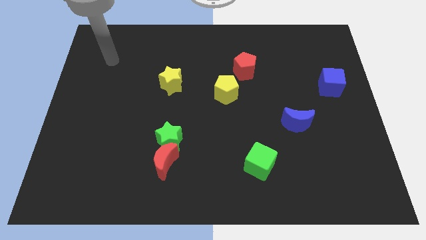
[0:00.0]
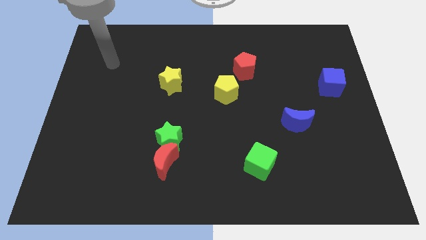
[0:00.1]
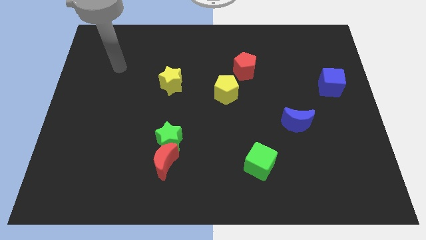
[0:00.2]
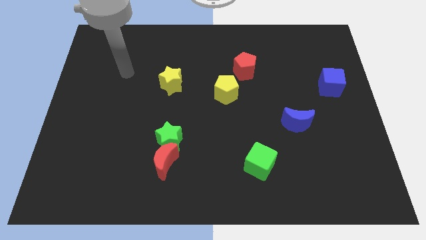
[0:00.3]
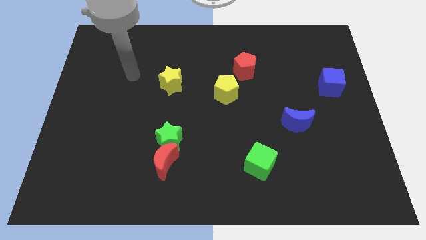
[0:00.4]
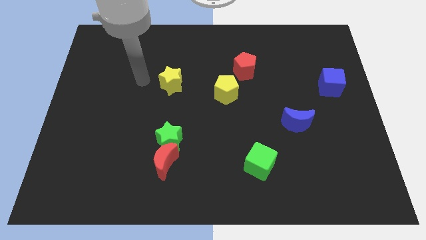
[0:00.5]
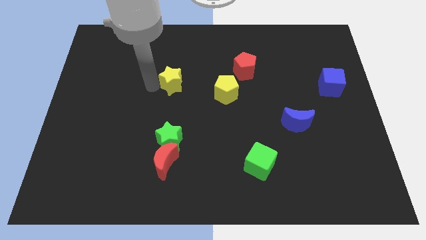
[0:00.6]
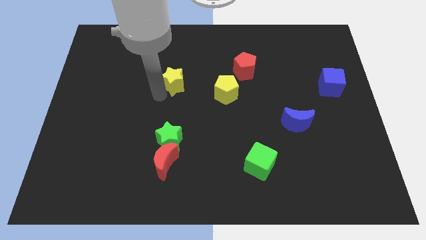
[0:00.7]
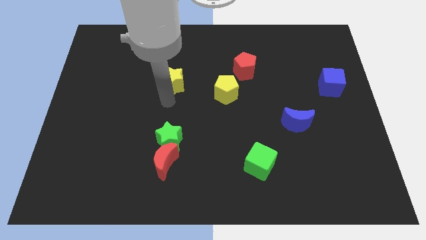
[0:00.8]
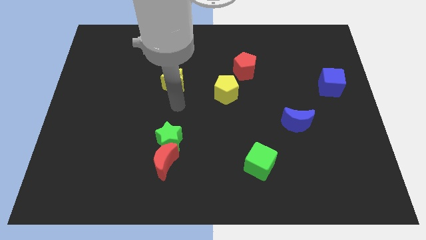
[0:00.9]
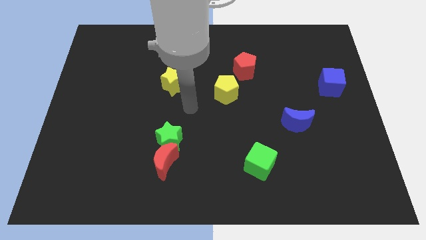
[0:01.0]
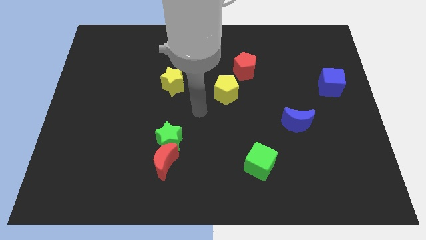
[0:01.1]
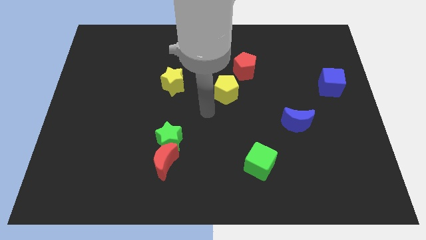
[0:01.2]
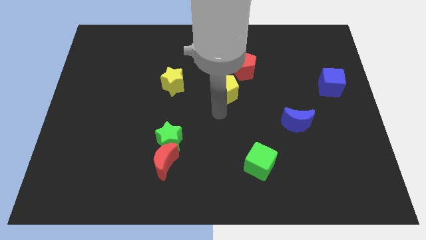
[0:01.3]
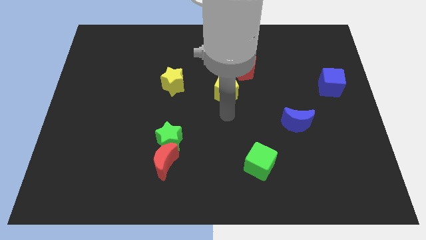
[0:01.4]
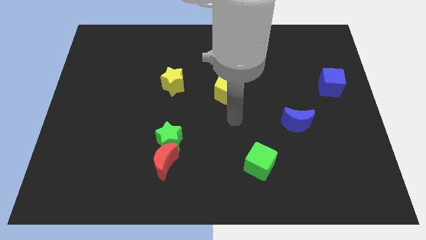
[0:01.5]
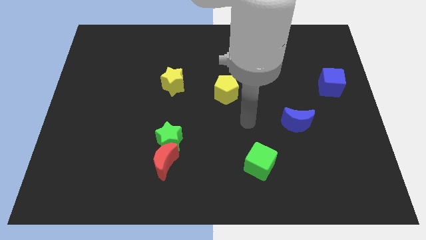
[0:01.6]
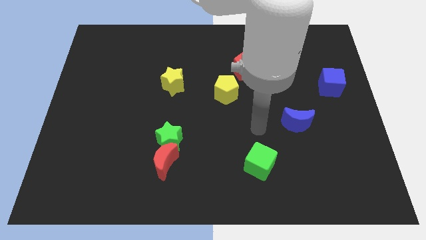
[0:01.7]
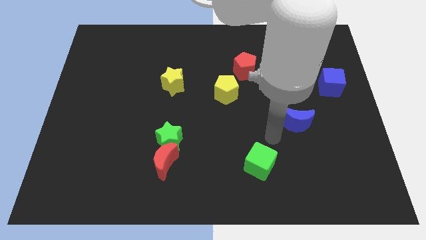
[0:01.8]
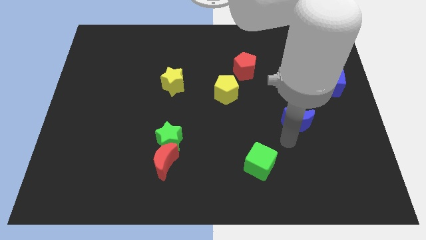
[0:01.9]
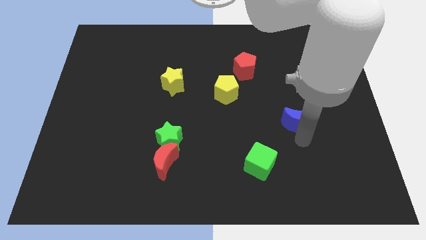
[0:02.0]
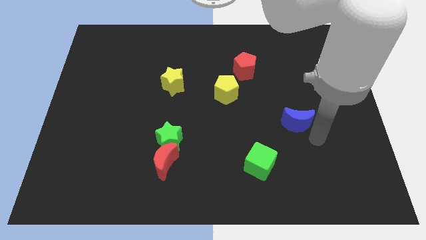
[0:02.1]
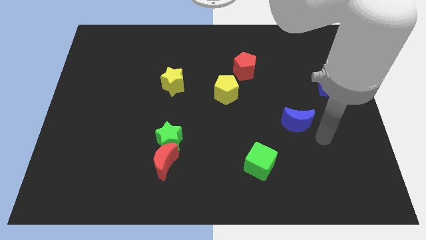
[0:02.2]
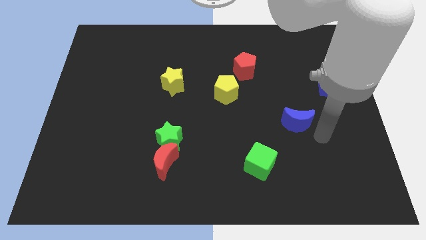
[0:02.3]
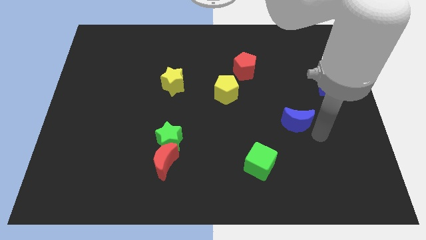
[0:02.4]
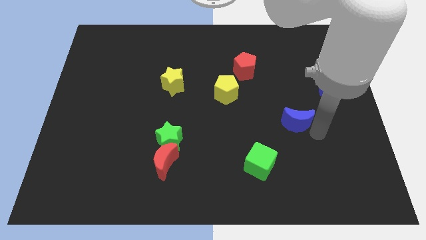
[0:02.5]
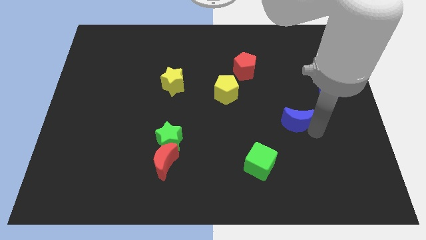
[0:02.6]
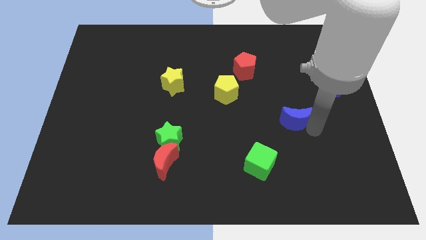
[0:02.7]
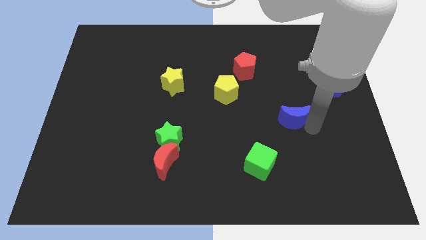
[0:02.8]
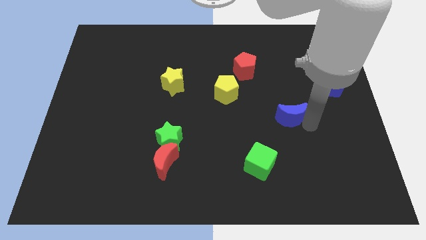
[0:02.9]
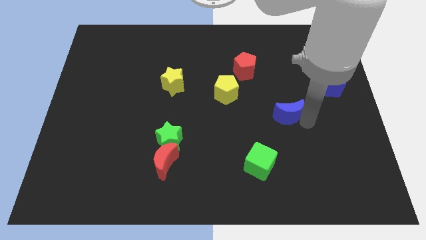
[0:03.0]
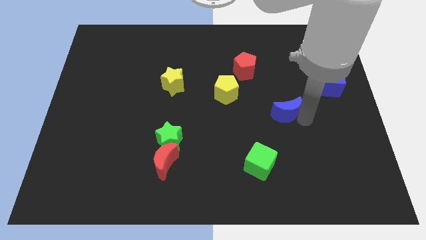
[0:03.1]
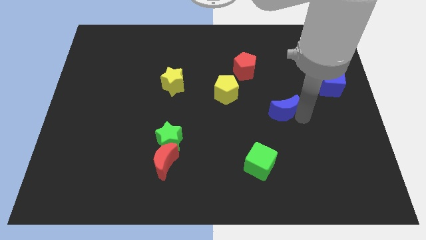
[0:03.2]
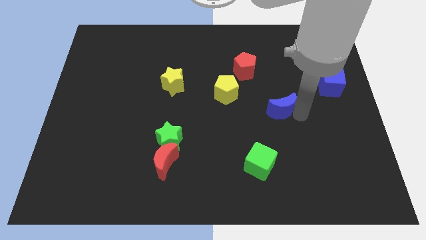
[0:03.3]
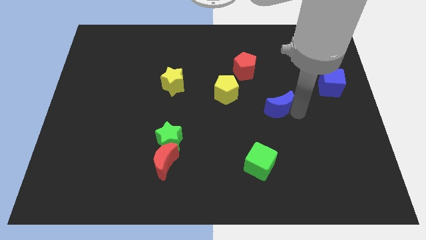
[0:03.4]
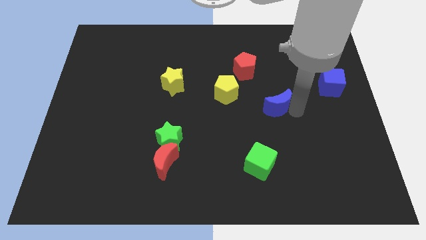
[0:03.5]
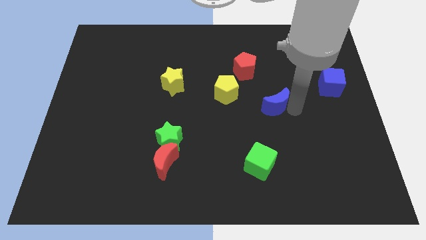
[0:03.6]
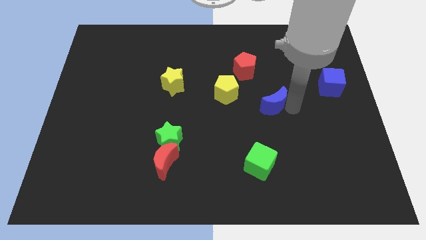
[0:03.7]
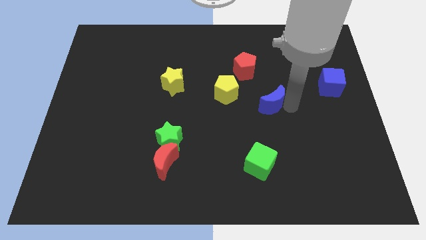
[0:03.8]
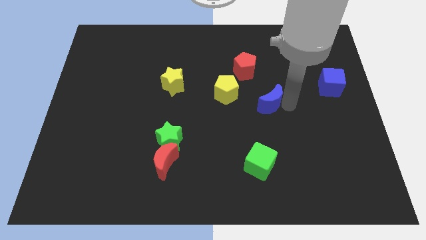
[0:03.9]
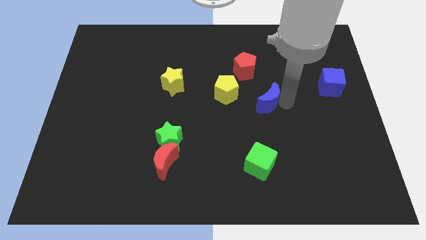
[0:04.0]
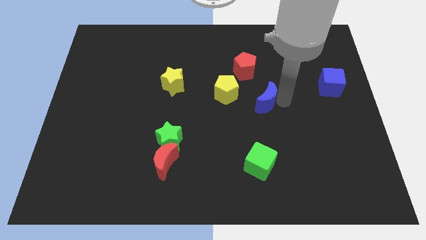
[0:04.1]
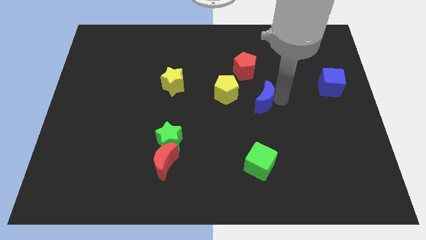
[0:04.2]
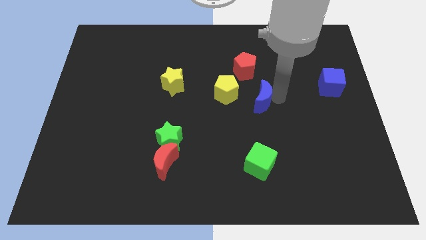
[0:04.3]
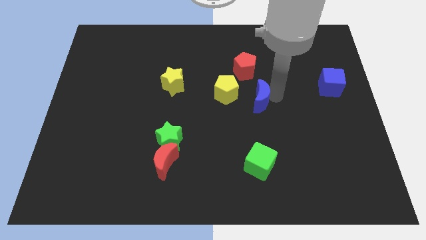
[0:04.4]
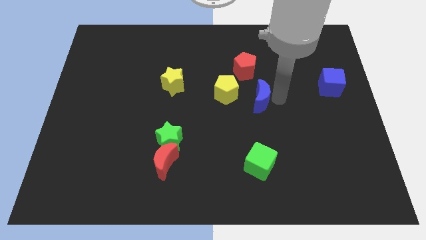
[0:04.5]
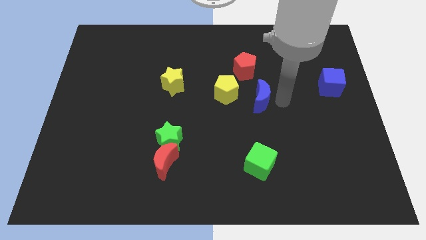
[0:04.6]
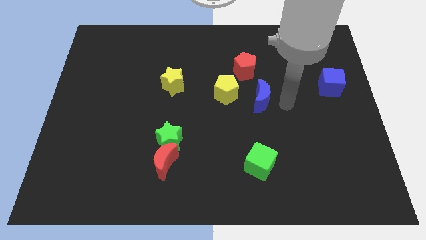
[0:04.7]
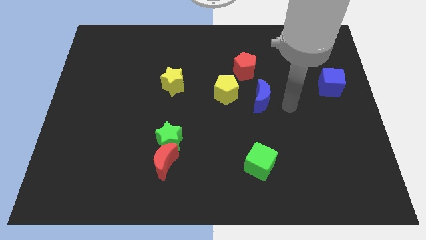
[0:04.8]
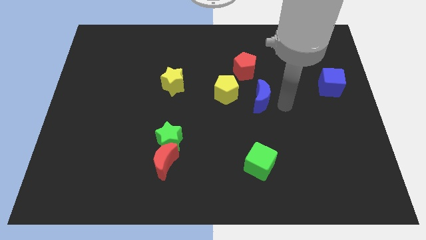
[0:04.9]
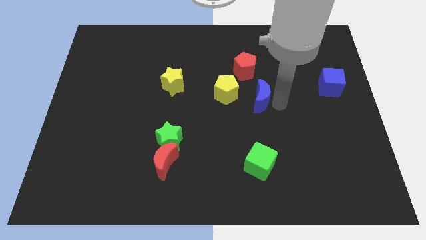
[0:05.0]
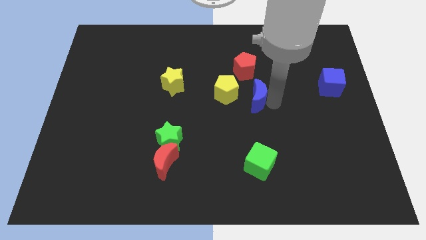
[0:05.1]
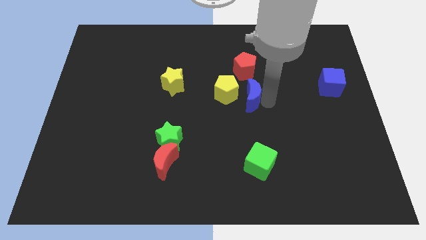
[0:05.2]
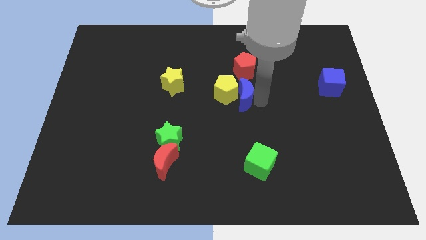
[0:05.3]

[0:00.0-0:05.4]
put the blue moon to the yellow pentagon

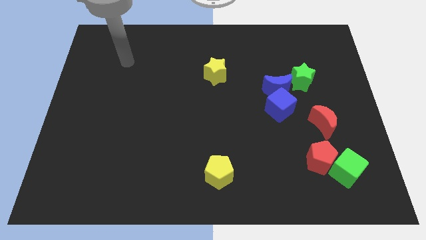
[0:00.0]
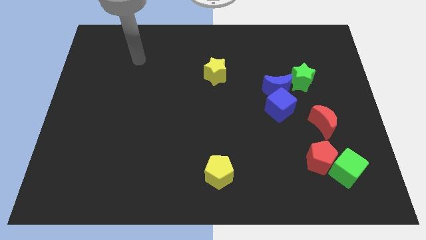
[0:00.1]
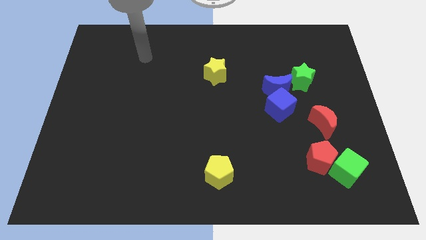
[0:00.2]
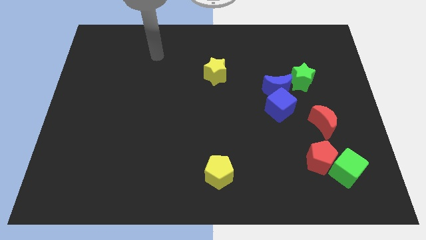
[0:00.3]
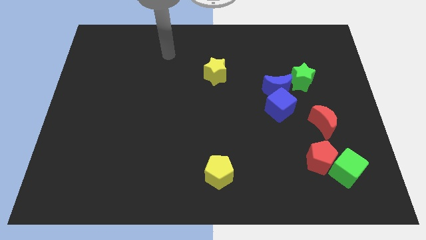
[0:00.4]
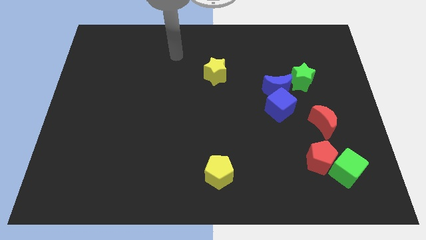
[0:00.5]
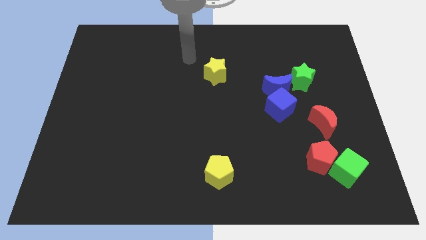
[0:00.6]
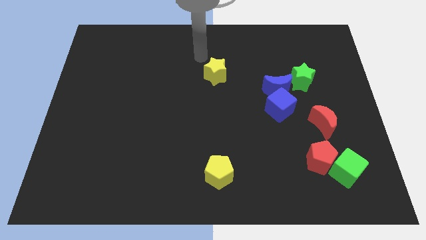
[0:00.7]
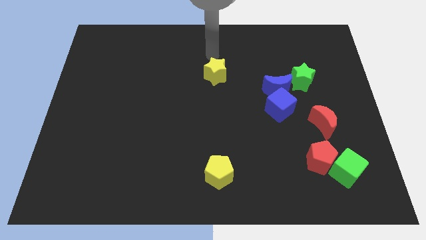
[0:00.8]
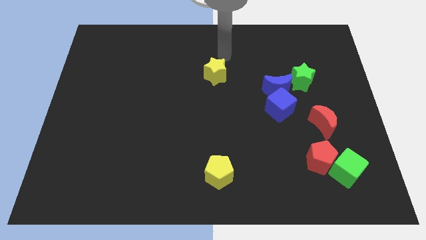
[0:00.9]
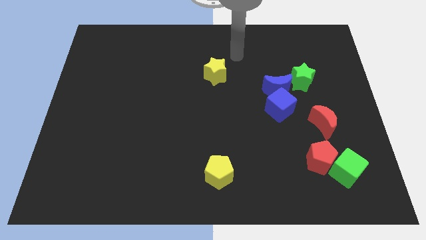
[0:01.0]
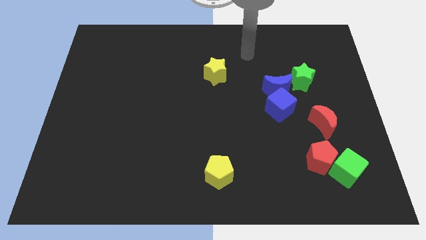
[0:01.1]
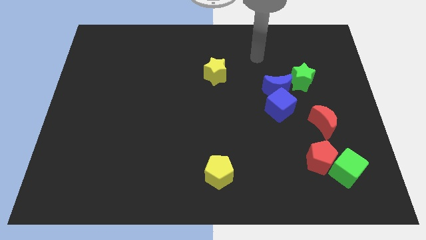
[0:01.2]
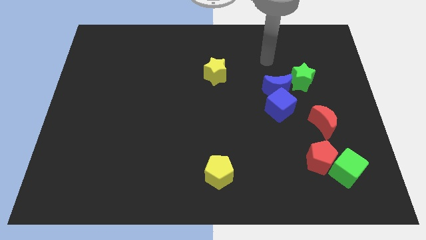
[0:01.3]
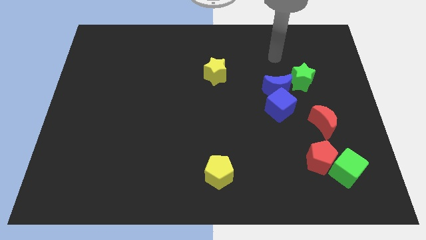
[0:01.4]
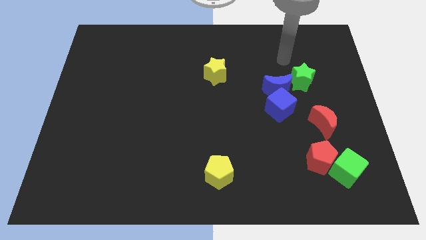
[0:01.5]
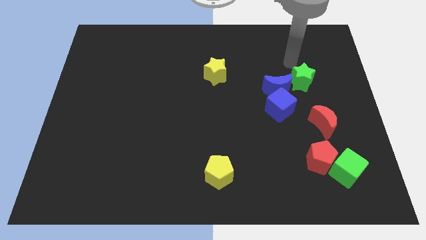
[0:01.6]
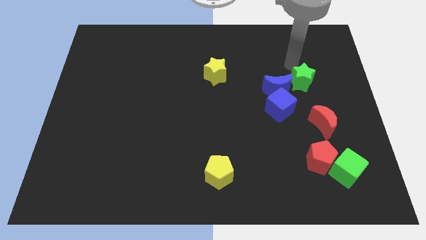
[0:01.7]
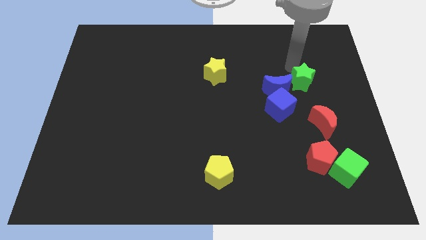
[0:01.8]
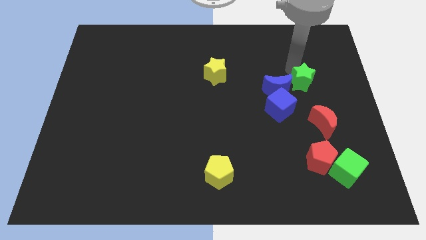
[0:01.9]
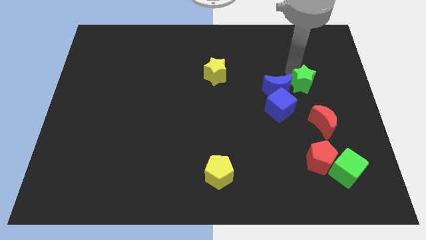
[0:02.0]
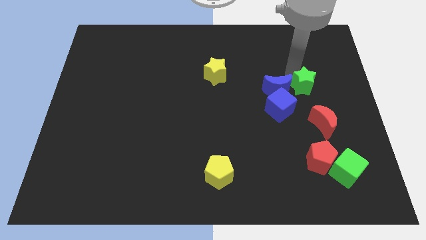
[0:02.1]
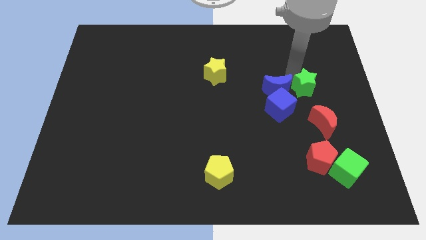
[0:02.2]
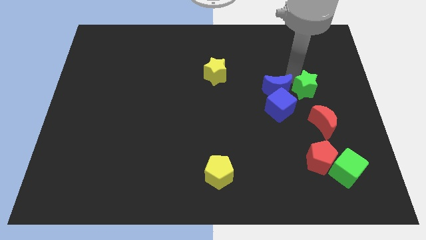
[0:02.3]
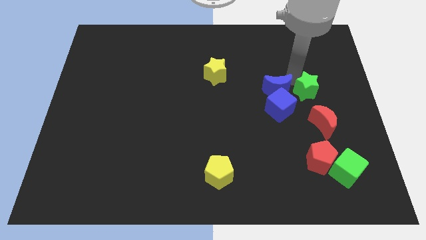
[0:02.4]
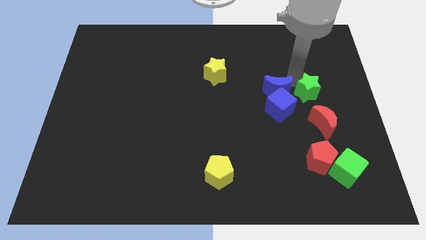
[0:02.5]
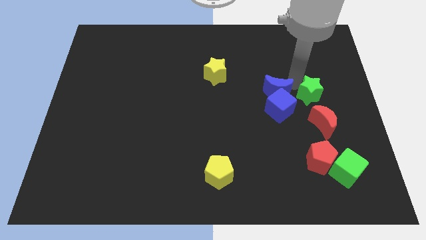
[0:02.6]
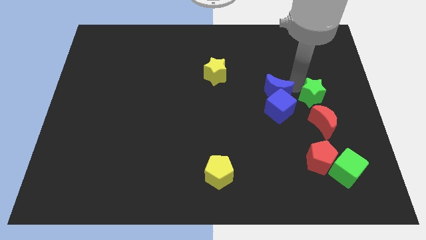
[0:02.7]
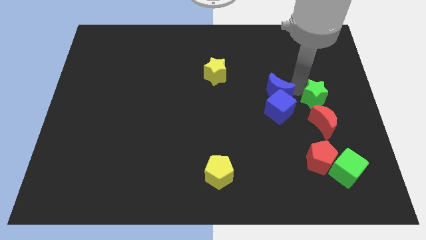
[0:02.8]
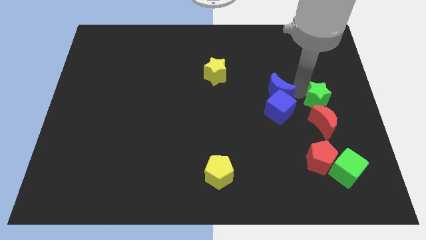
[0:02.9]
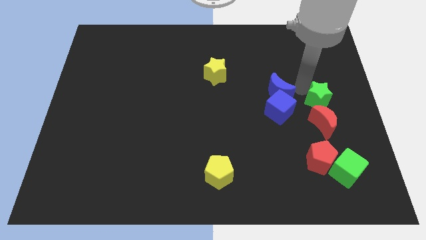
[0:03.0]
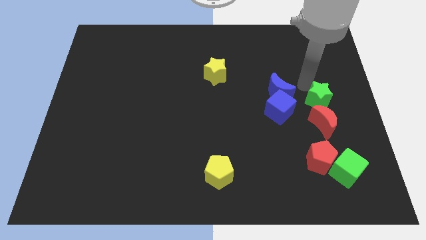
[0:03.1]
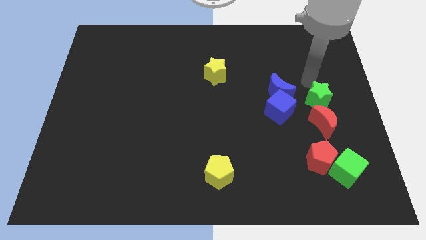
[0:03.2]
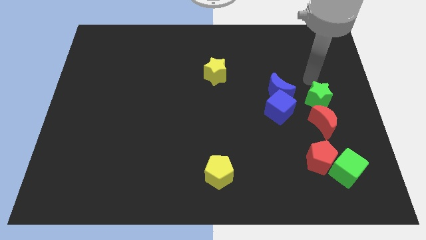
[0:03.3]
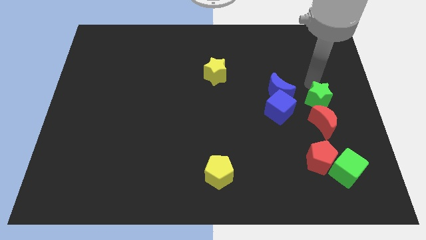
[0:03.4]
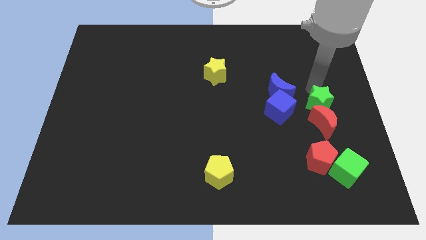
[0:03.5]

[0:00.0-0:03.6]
push the green star next to the red moon
